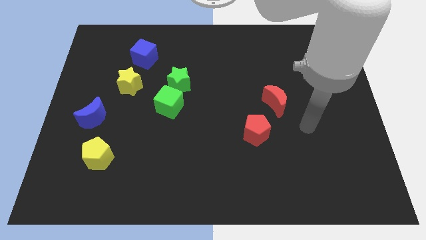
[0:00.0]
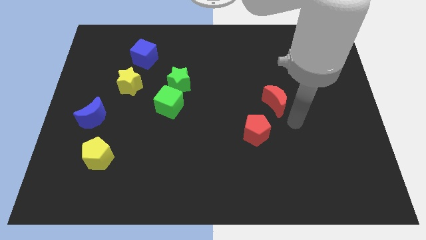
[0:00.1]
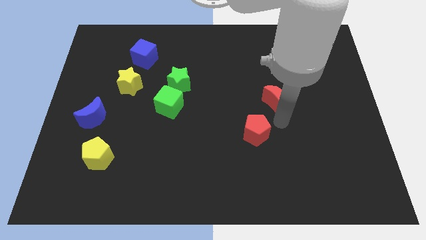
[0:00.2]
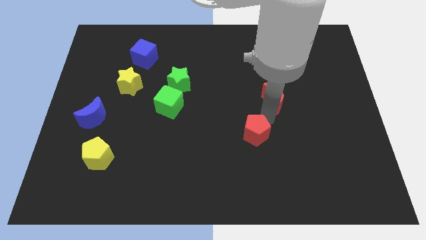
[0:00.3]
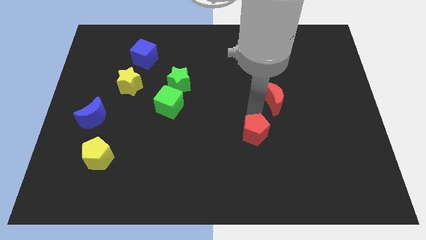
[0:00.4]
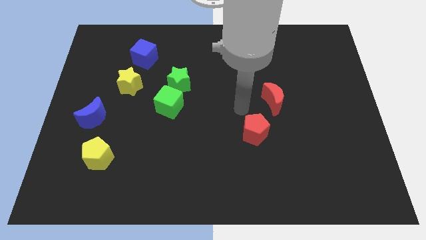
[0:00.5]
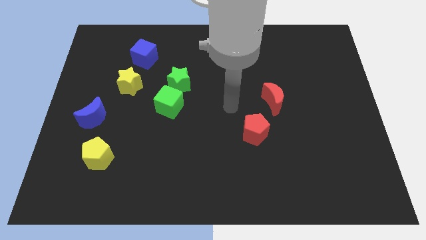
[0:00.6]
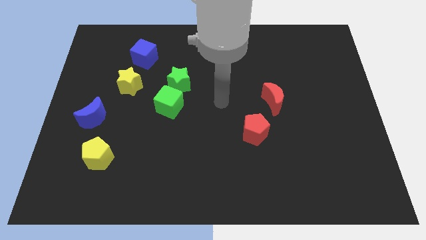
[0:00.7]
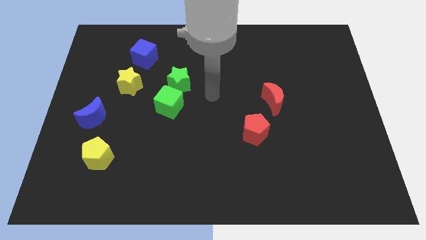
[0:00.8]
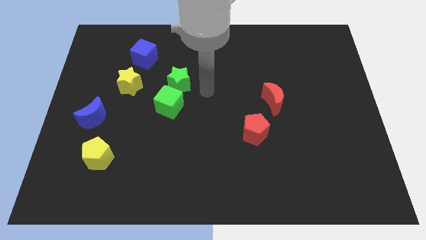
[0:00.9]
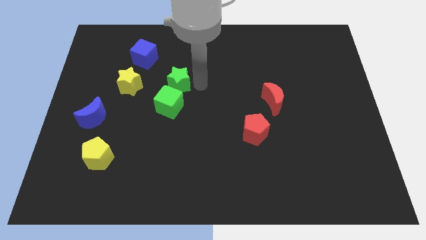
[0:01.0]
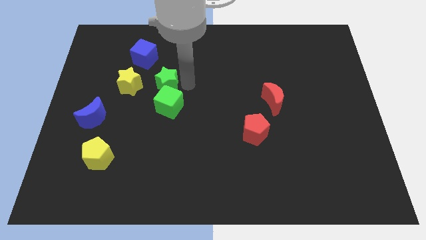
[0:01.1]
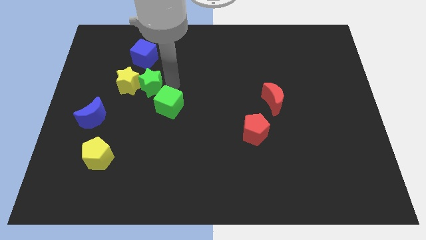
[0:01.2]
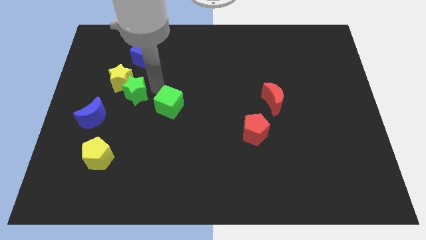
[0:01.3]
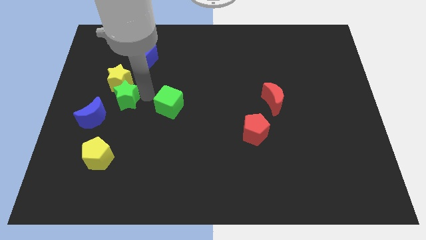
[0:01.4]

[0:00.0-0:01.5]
separate the green cube from the green star

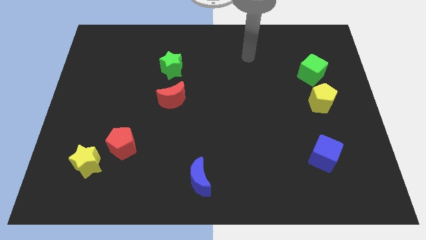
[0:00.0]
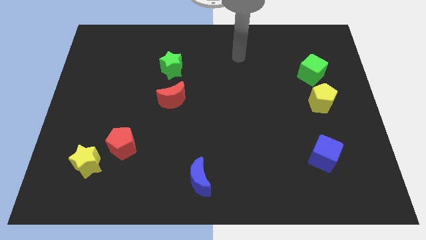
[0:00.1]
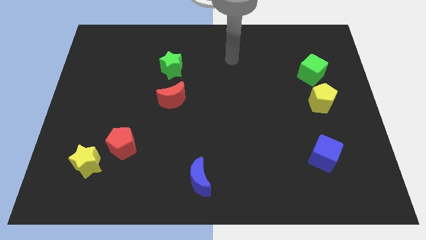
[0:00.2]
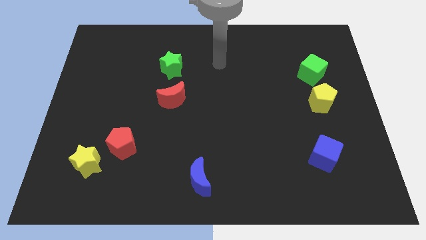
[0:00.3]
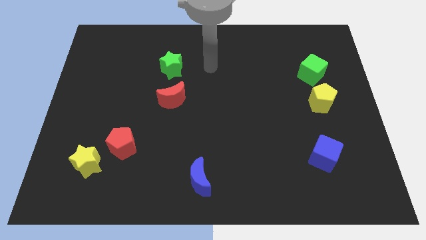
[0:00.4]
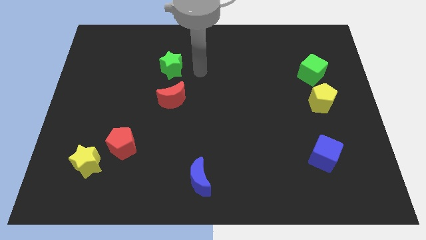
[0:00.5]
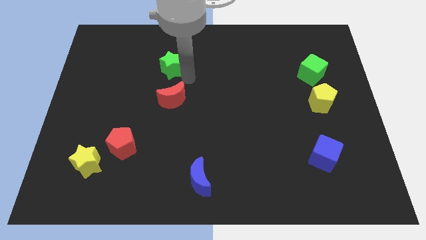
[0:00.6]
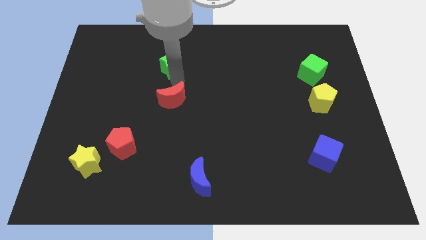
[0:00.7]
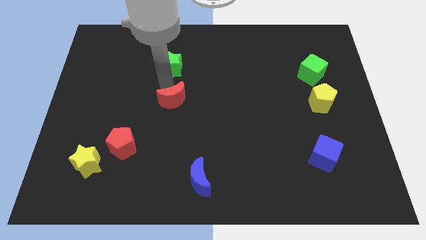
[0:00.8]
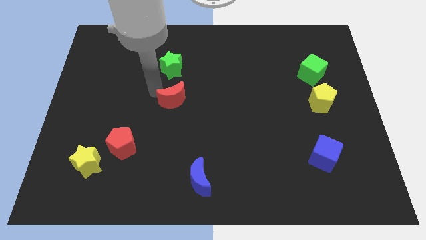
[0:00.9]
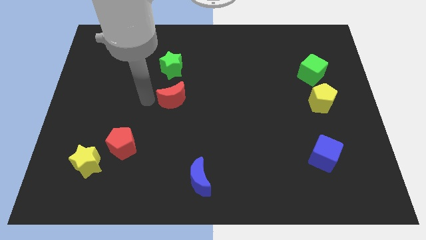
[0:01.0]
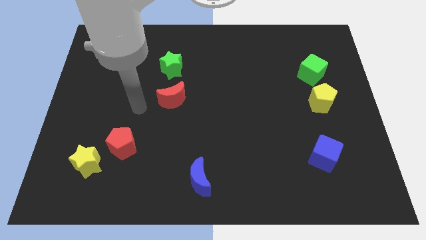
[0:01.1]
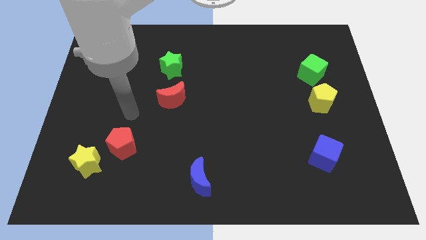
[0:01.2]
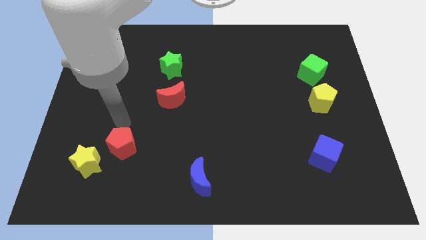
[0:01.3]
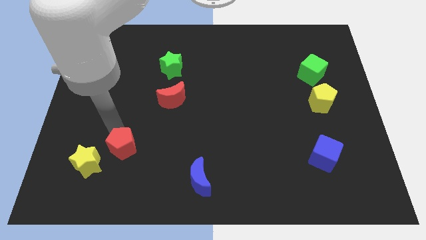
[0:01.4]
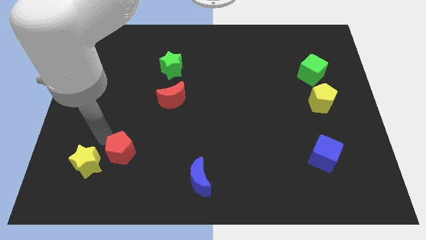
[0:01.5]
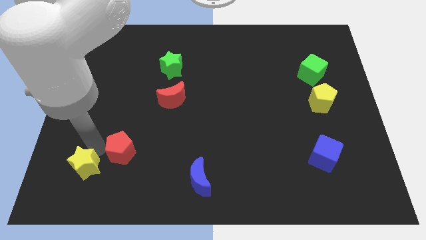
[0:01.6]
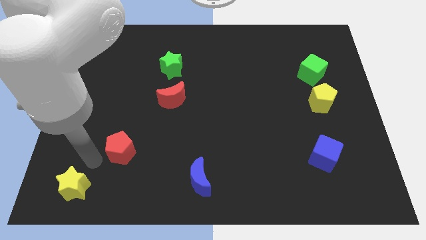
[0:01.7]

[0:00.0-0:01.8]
pull the red pentagon apart from the yellow star

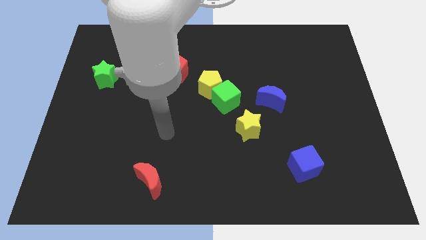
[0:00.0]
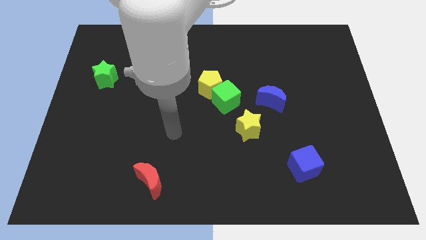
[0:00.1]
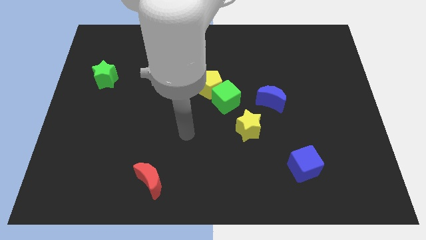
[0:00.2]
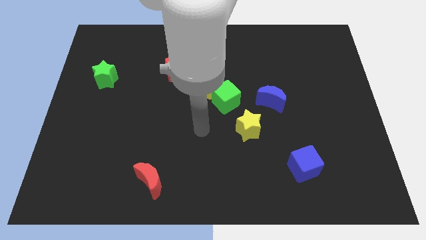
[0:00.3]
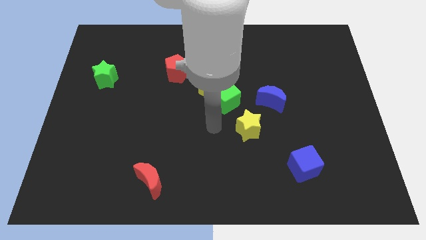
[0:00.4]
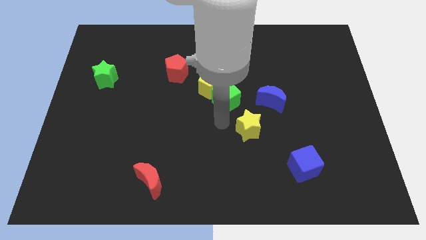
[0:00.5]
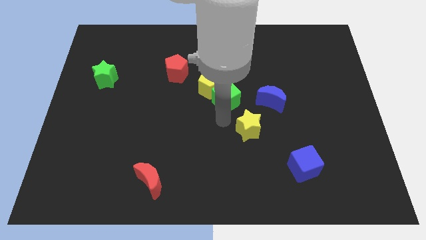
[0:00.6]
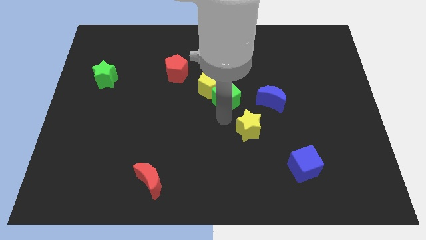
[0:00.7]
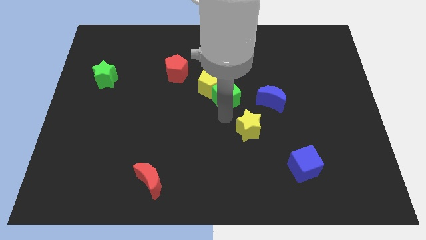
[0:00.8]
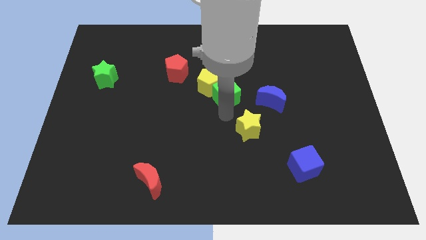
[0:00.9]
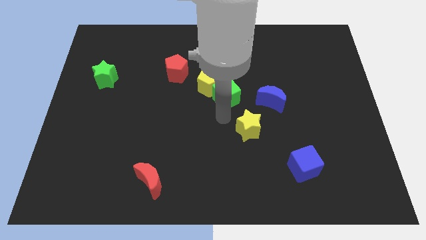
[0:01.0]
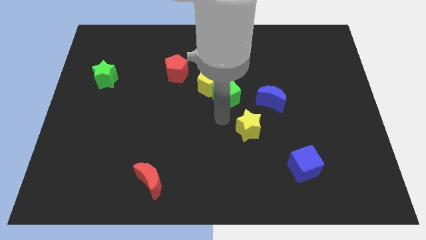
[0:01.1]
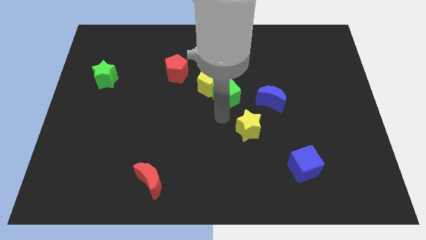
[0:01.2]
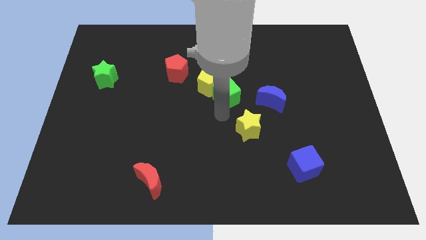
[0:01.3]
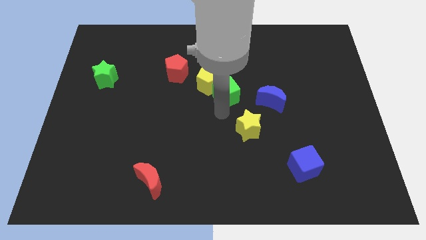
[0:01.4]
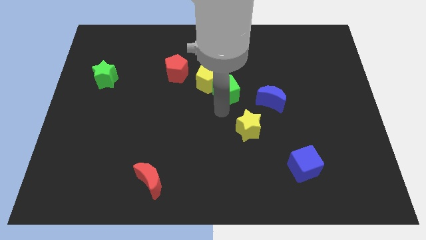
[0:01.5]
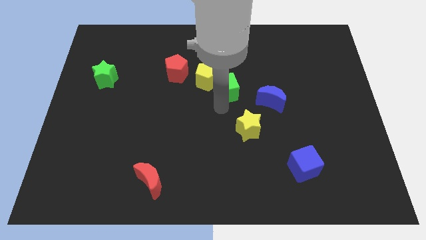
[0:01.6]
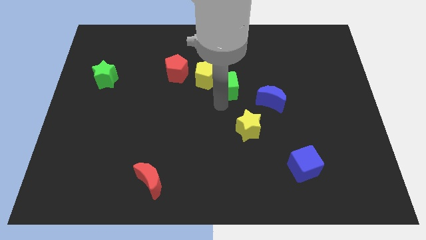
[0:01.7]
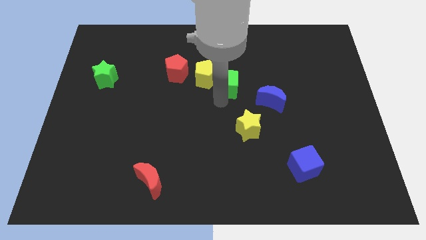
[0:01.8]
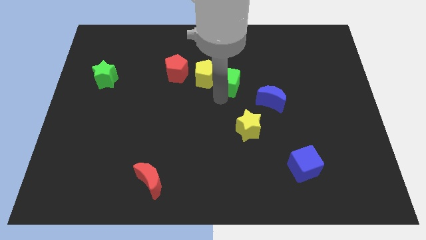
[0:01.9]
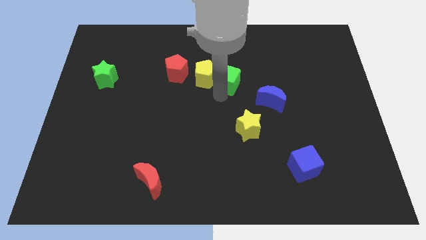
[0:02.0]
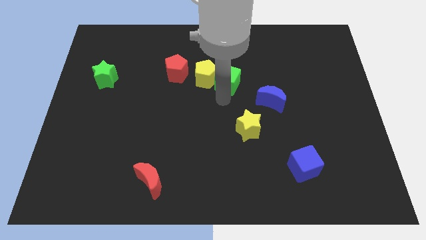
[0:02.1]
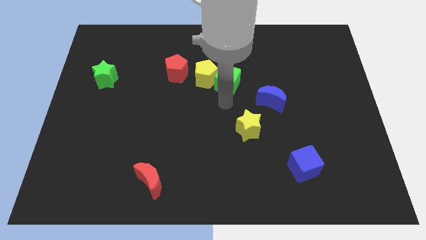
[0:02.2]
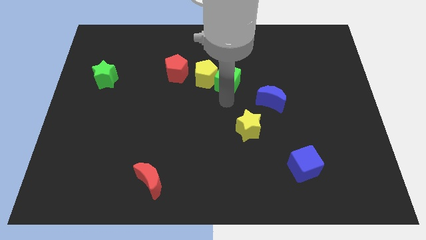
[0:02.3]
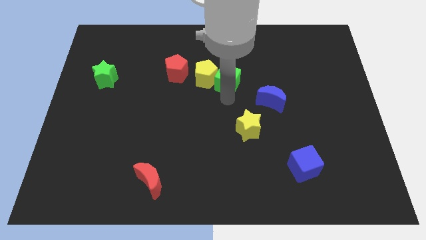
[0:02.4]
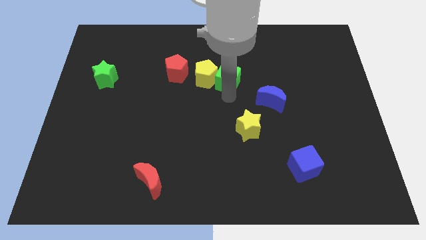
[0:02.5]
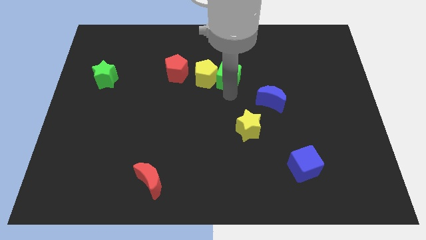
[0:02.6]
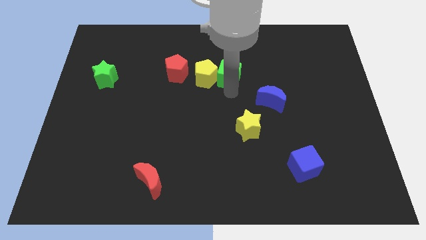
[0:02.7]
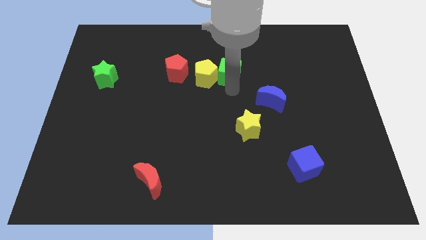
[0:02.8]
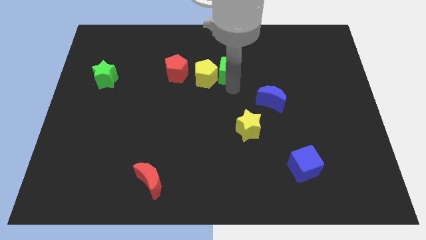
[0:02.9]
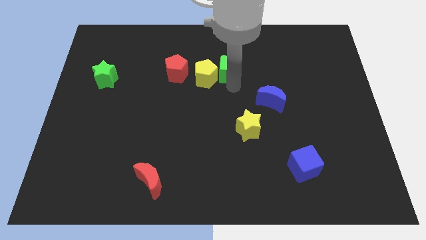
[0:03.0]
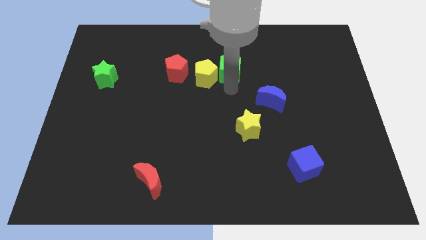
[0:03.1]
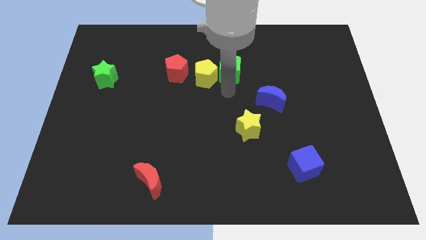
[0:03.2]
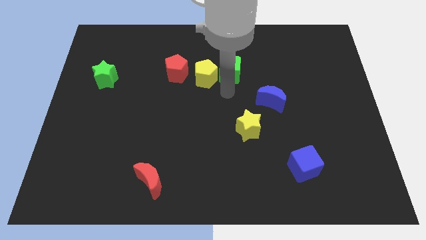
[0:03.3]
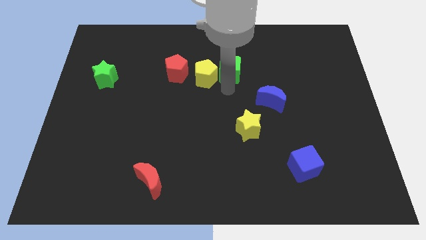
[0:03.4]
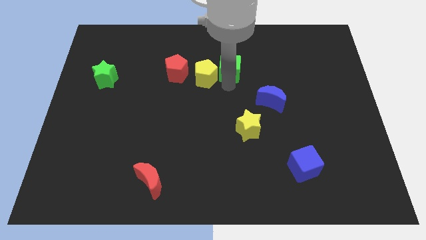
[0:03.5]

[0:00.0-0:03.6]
separate the green cube from the yellow pentagon and yellow star

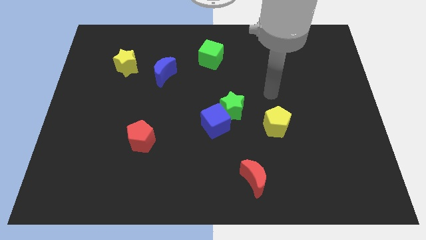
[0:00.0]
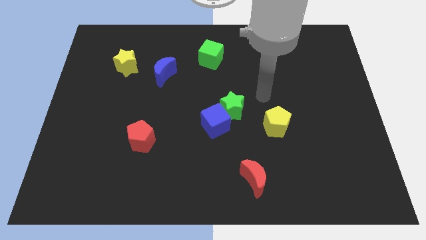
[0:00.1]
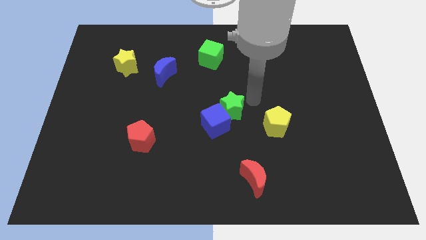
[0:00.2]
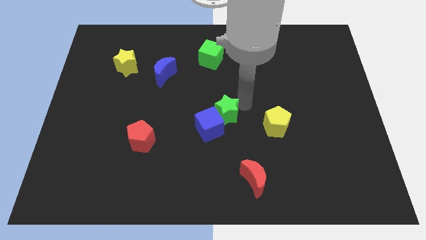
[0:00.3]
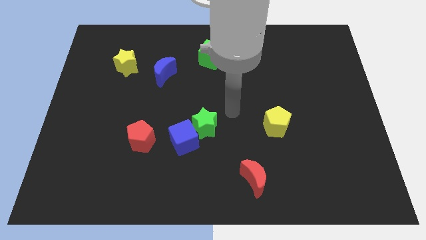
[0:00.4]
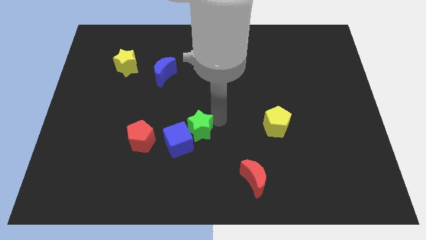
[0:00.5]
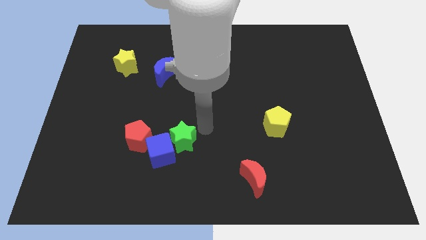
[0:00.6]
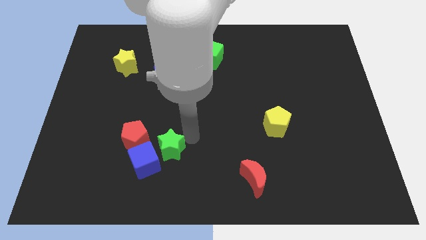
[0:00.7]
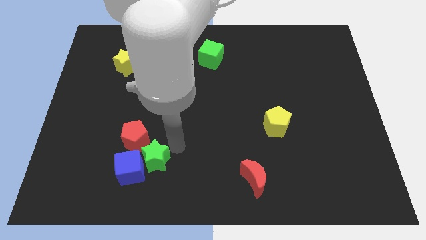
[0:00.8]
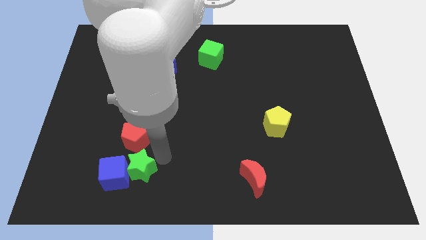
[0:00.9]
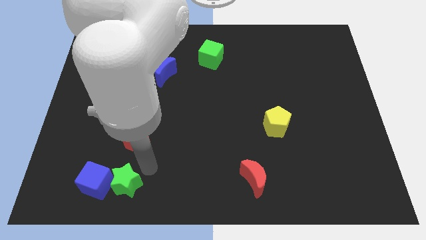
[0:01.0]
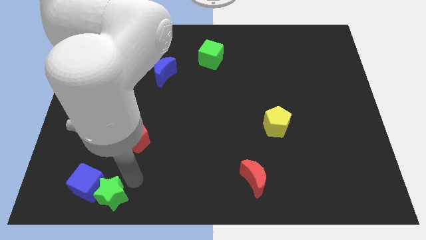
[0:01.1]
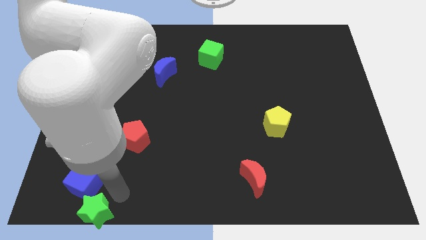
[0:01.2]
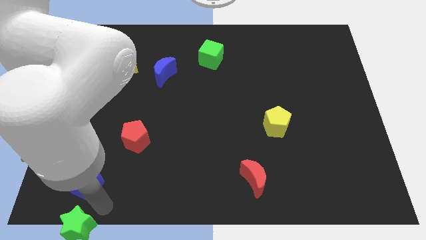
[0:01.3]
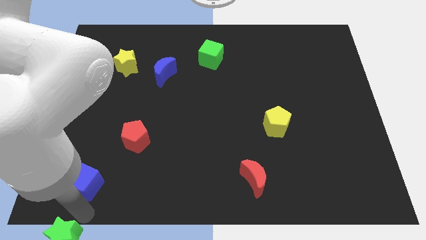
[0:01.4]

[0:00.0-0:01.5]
separate the blue cube from the green star

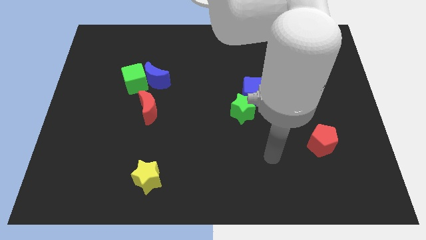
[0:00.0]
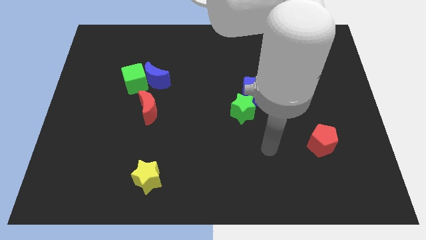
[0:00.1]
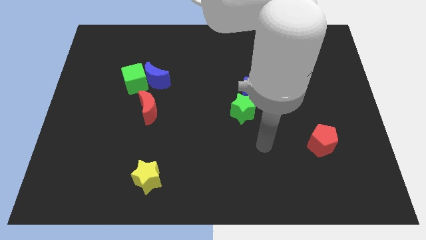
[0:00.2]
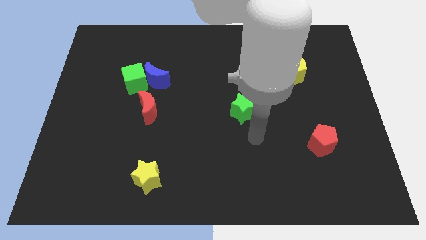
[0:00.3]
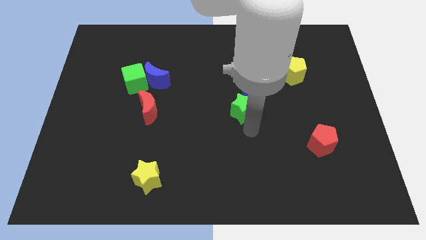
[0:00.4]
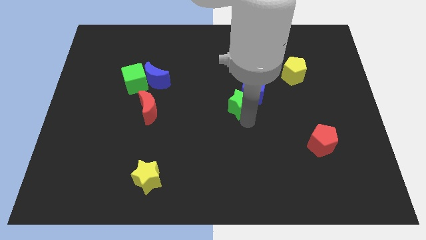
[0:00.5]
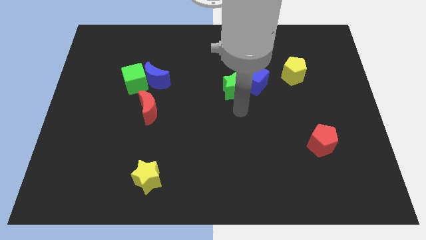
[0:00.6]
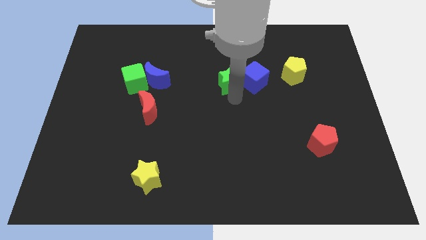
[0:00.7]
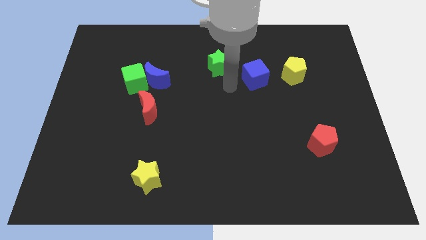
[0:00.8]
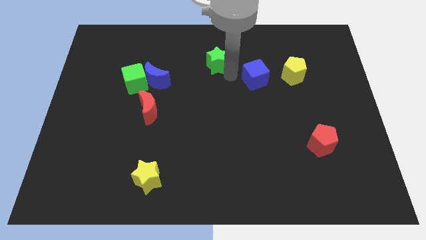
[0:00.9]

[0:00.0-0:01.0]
move the blue cube away from the green star
